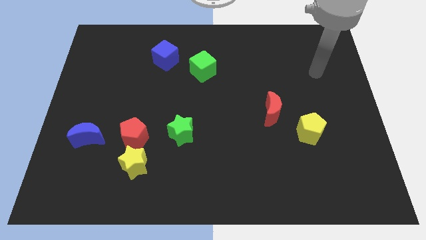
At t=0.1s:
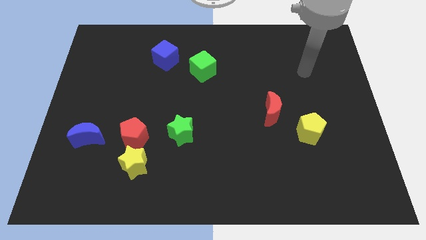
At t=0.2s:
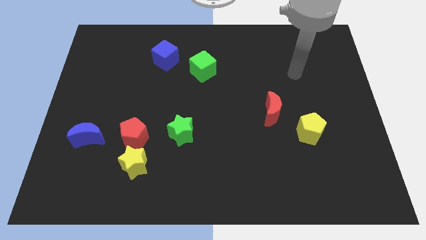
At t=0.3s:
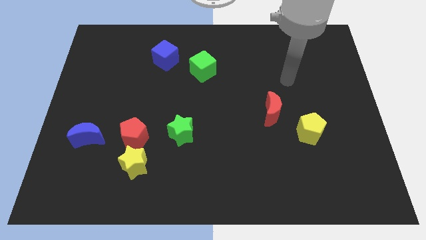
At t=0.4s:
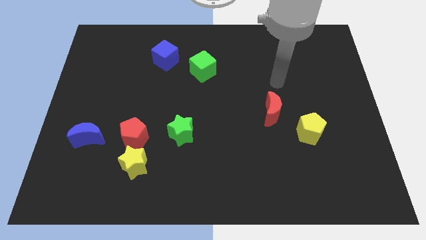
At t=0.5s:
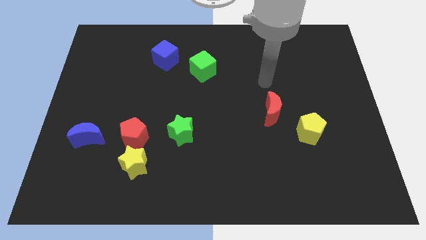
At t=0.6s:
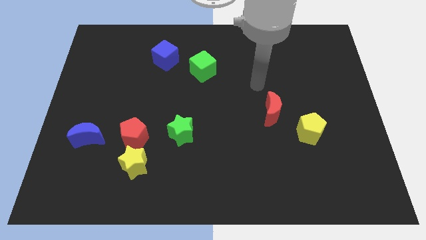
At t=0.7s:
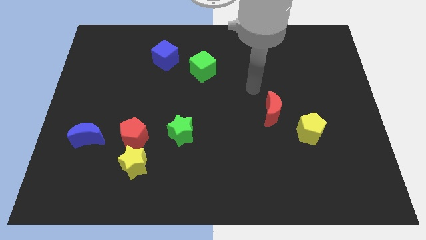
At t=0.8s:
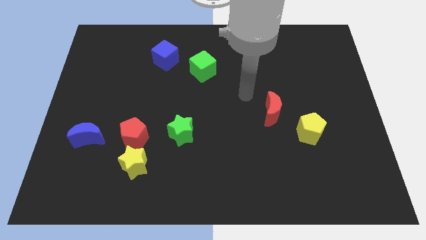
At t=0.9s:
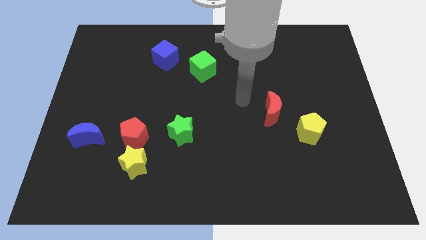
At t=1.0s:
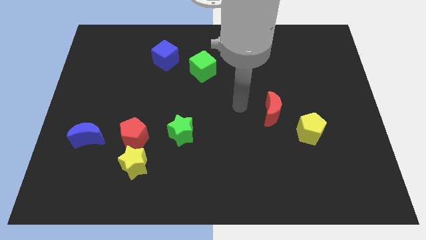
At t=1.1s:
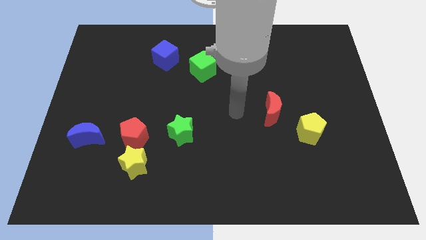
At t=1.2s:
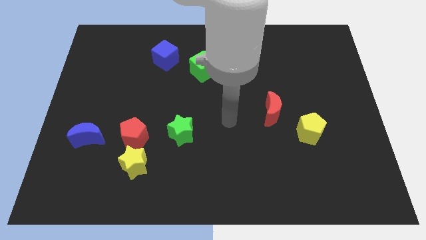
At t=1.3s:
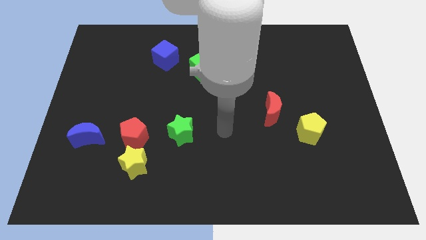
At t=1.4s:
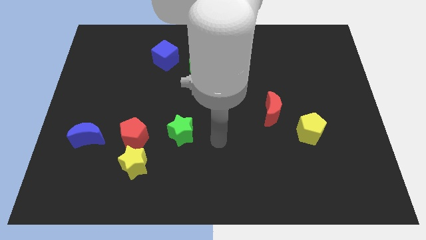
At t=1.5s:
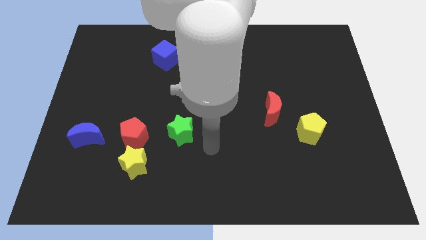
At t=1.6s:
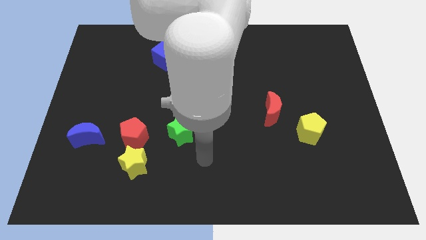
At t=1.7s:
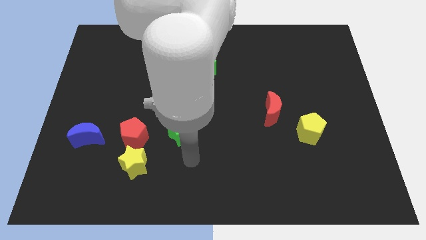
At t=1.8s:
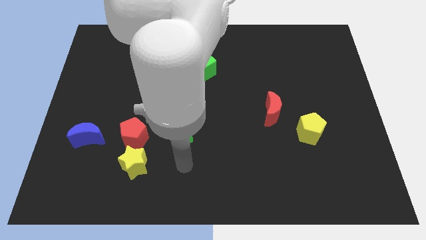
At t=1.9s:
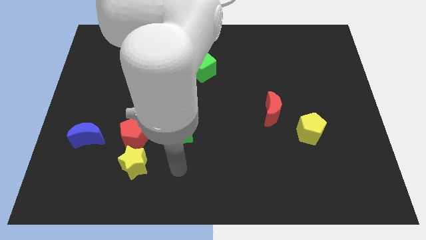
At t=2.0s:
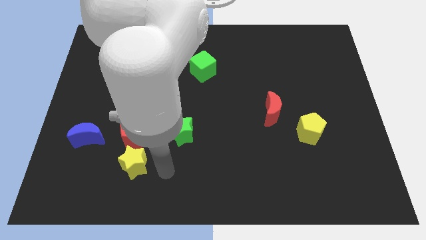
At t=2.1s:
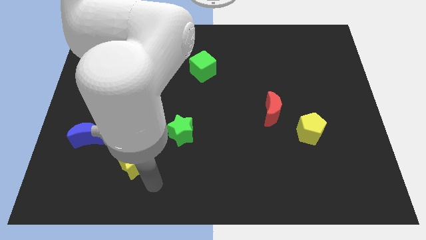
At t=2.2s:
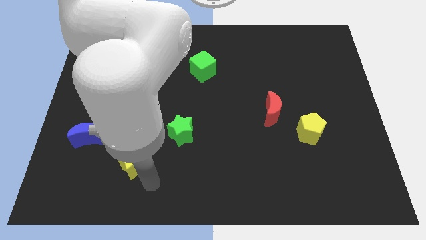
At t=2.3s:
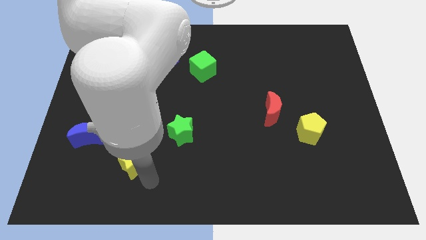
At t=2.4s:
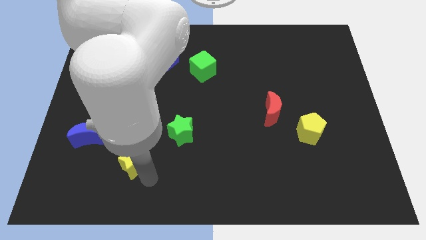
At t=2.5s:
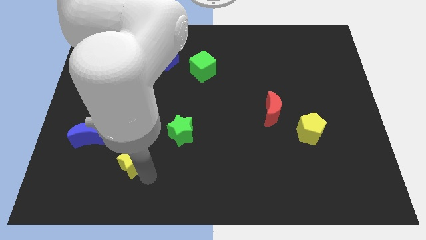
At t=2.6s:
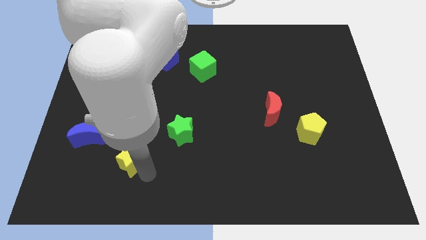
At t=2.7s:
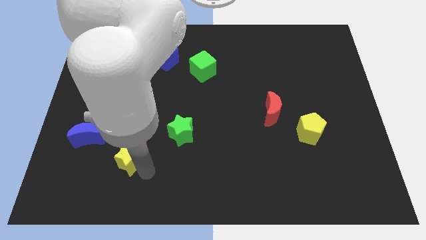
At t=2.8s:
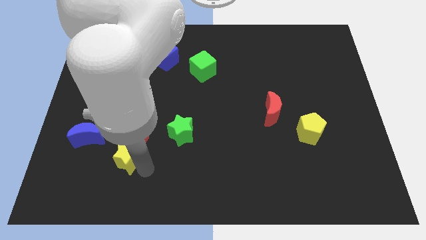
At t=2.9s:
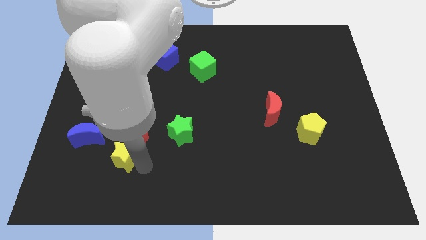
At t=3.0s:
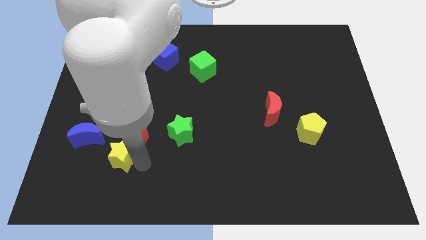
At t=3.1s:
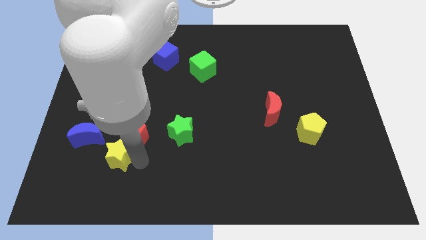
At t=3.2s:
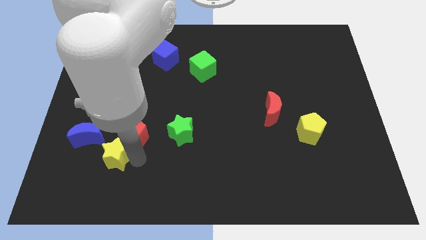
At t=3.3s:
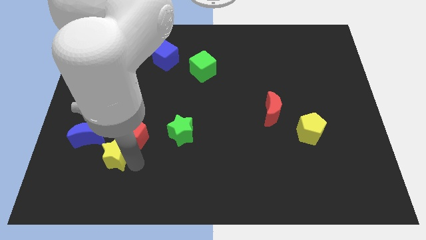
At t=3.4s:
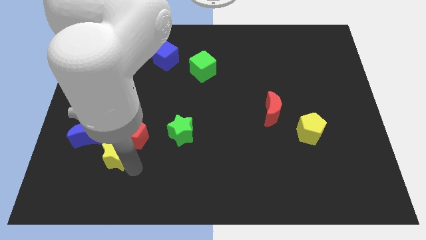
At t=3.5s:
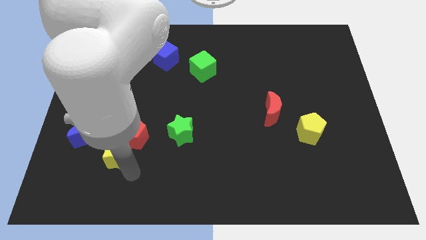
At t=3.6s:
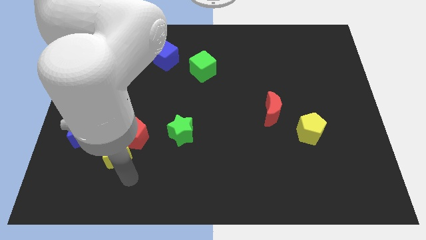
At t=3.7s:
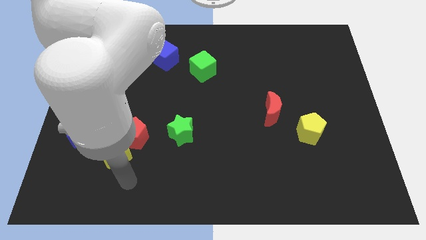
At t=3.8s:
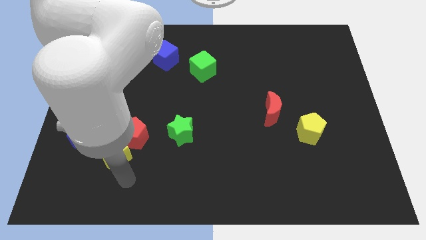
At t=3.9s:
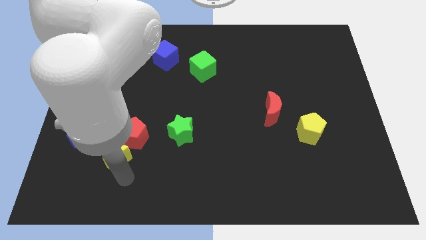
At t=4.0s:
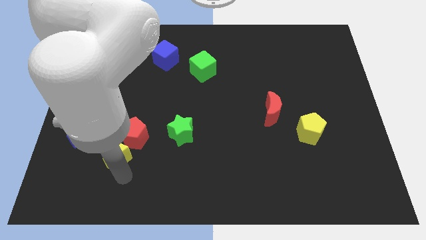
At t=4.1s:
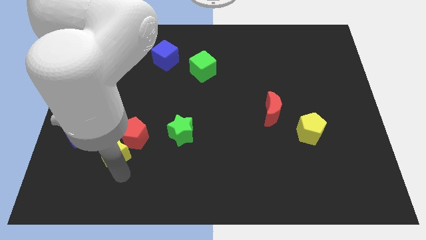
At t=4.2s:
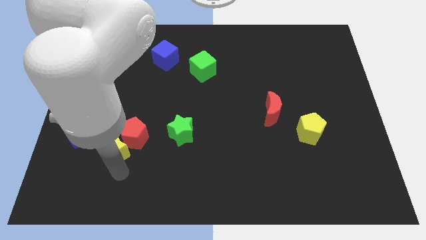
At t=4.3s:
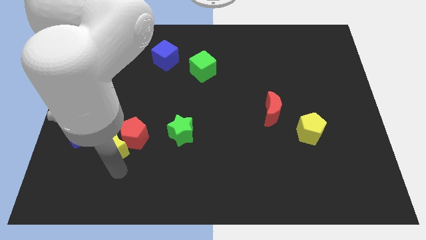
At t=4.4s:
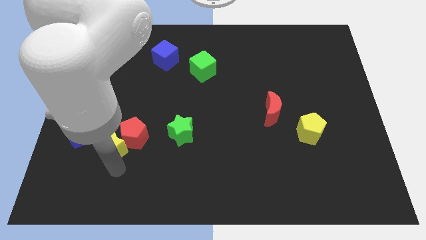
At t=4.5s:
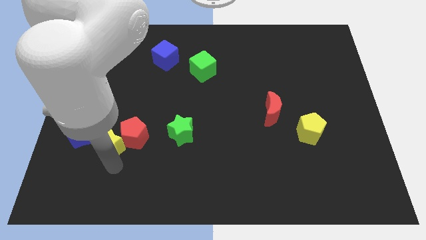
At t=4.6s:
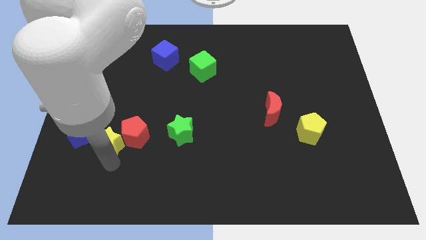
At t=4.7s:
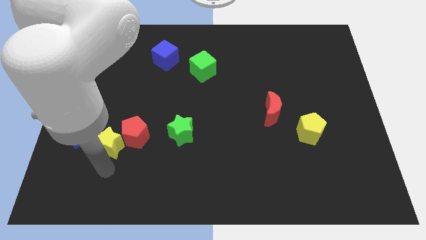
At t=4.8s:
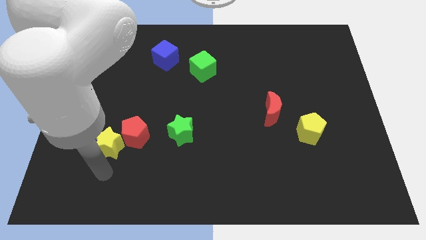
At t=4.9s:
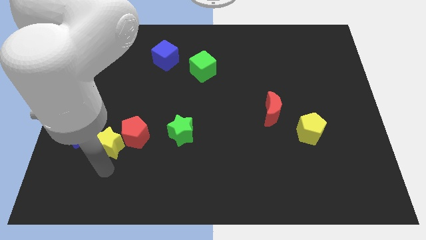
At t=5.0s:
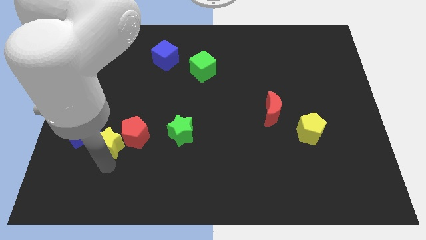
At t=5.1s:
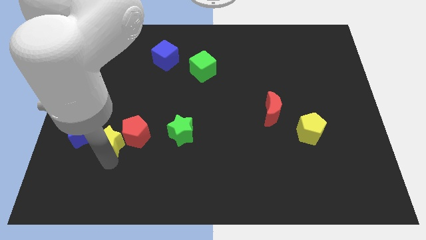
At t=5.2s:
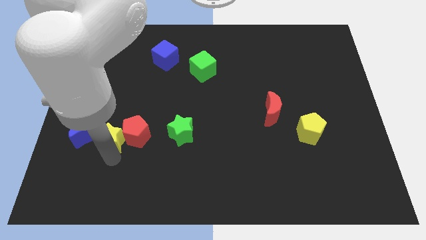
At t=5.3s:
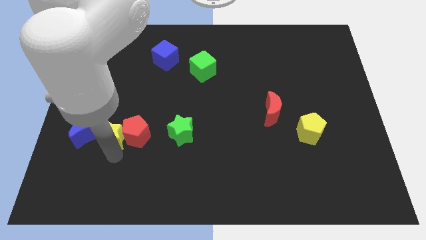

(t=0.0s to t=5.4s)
put the yellow star to the top left side of the red pentagon
